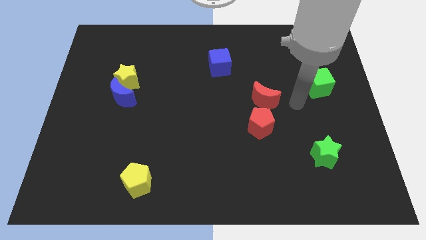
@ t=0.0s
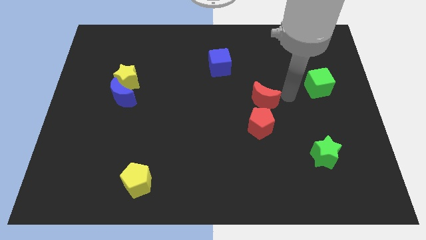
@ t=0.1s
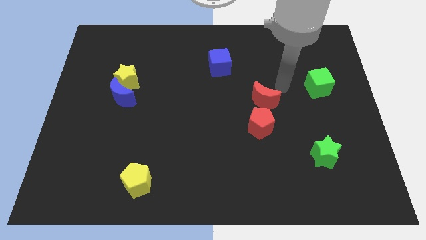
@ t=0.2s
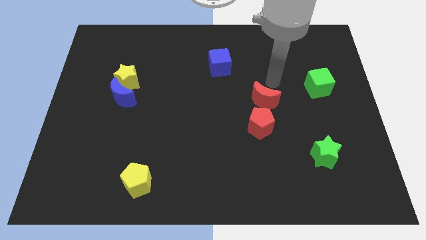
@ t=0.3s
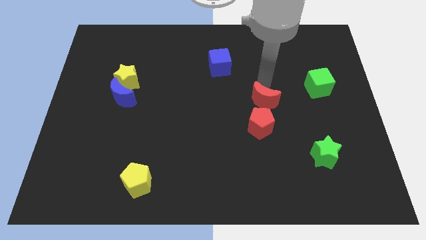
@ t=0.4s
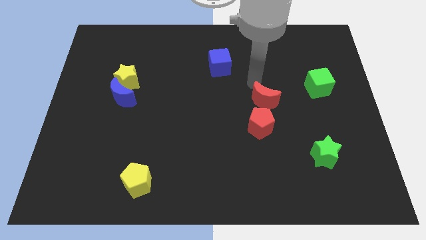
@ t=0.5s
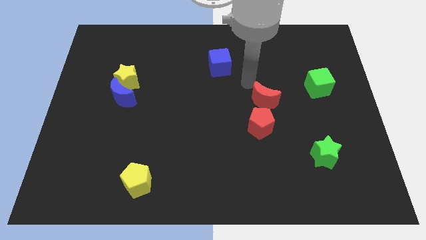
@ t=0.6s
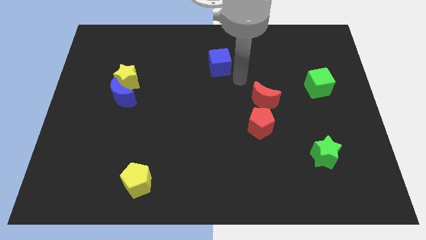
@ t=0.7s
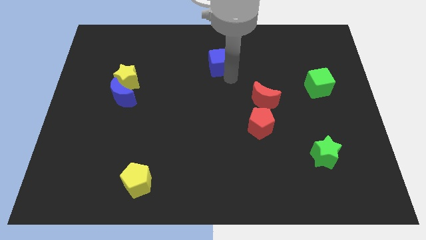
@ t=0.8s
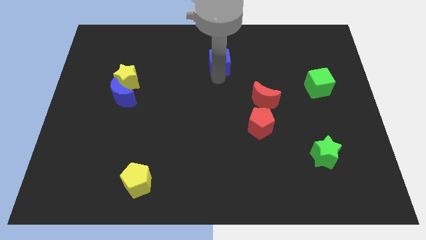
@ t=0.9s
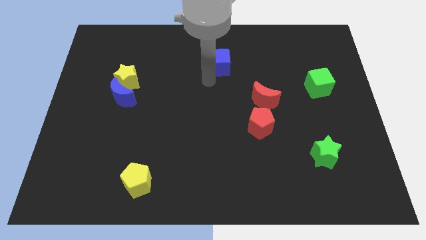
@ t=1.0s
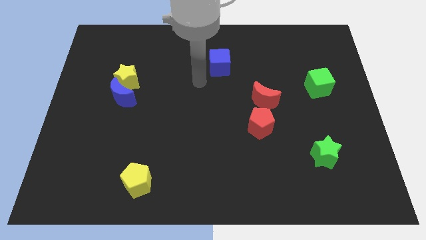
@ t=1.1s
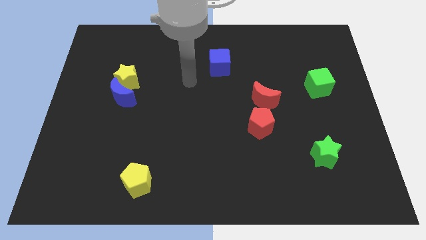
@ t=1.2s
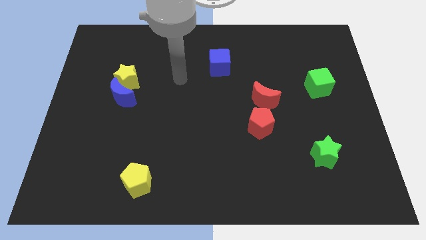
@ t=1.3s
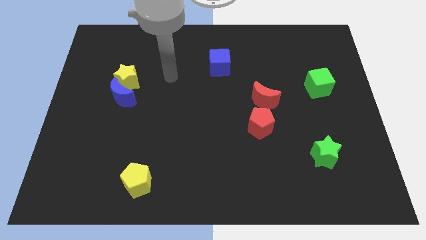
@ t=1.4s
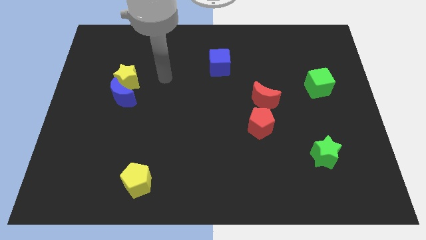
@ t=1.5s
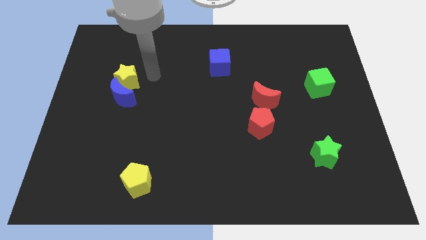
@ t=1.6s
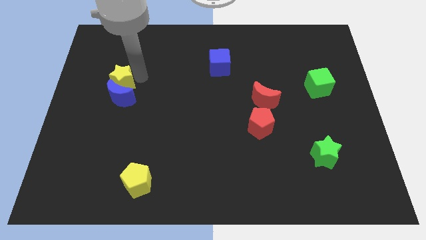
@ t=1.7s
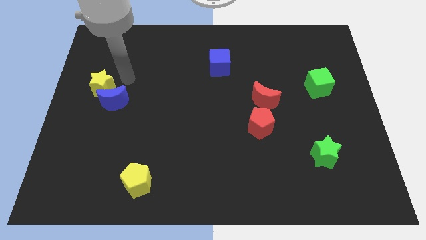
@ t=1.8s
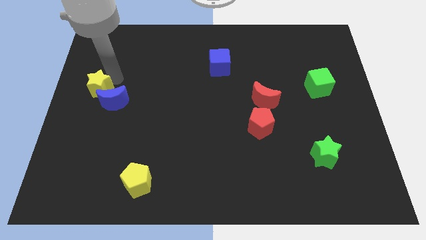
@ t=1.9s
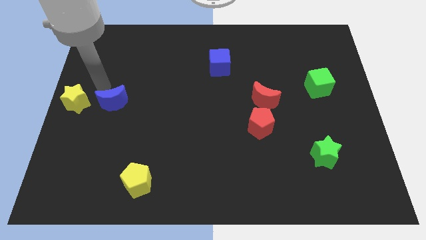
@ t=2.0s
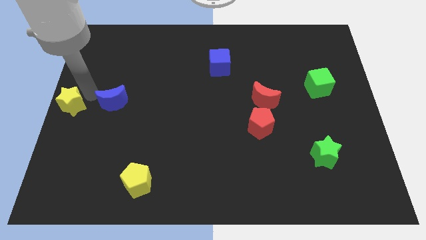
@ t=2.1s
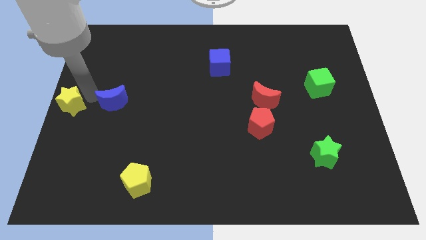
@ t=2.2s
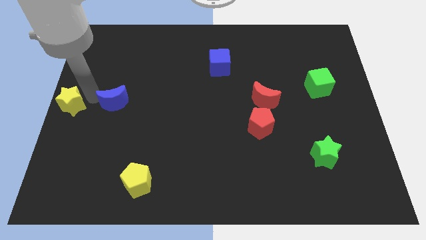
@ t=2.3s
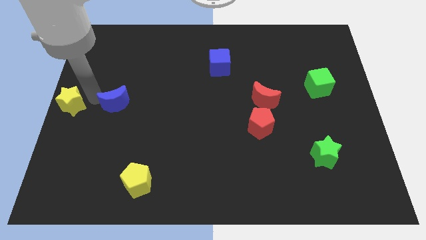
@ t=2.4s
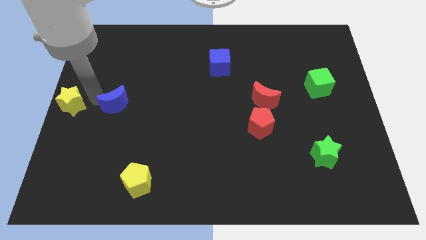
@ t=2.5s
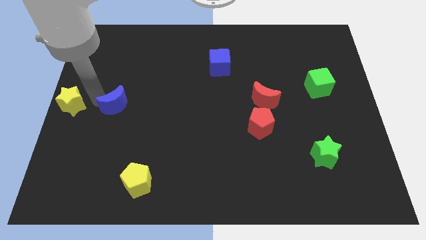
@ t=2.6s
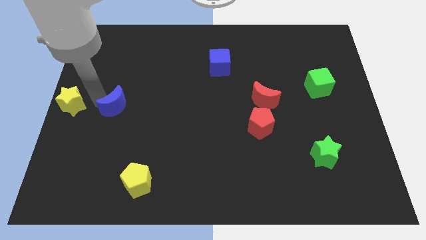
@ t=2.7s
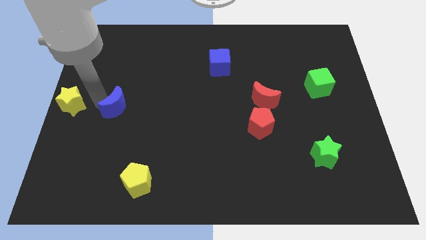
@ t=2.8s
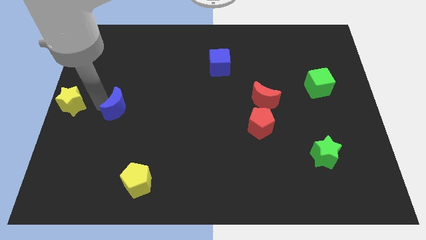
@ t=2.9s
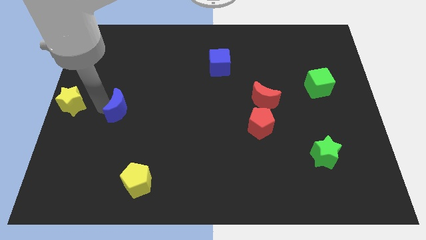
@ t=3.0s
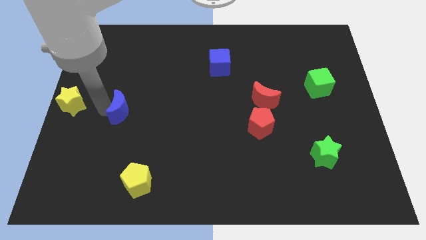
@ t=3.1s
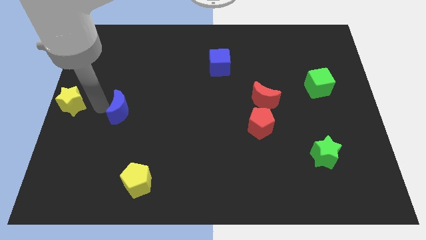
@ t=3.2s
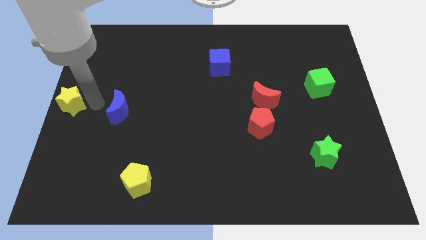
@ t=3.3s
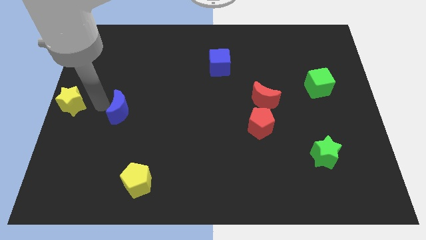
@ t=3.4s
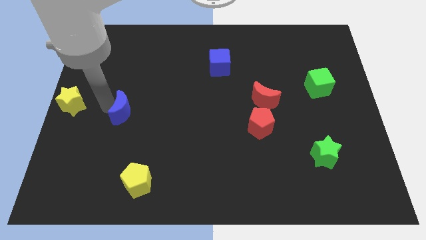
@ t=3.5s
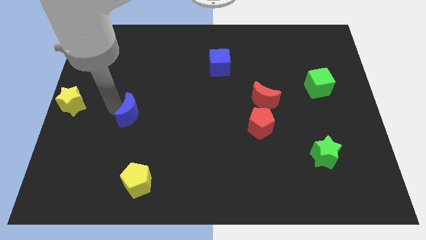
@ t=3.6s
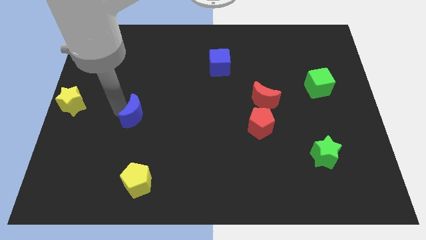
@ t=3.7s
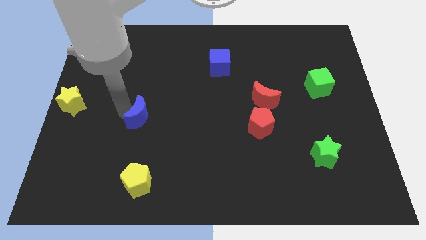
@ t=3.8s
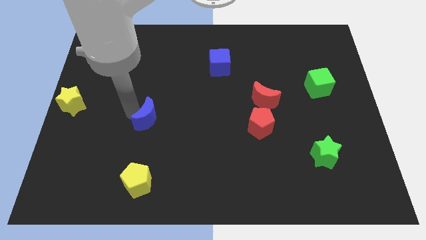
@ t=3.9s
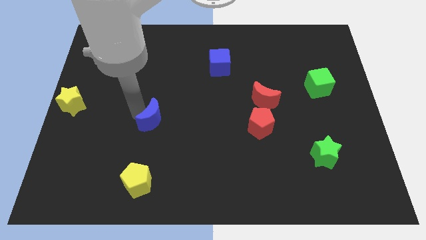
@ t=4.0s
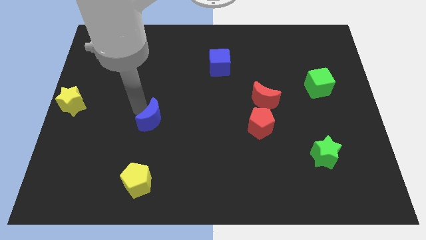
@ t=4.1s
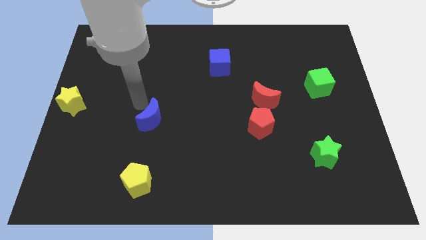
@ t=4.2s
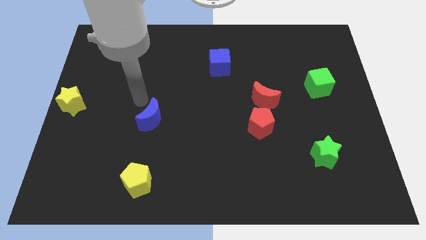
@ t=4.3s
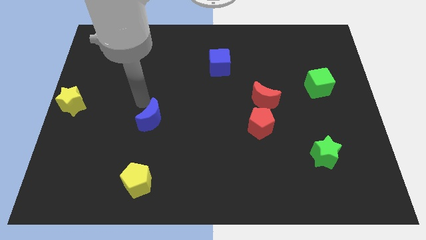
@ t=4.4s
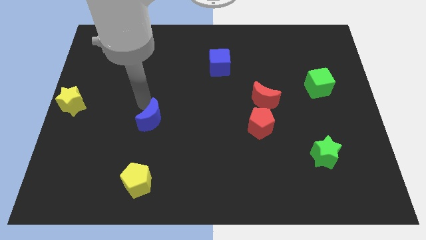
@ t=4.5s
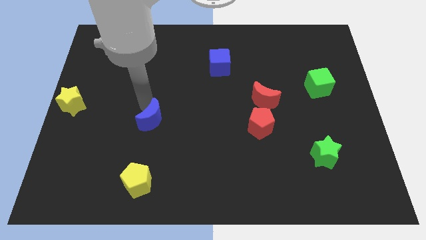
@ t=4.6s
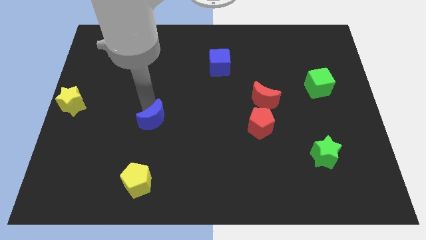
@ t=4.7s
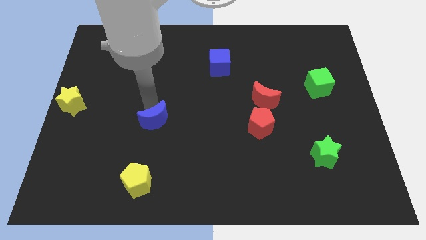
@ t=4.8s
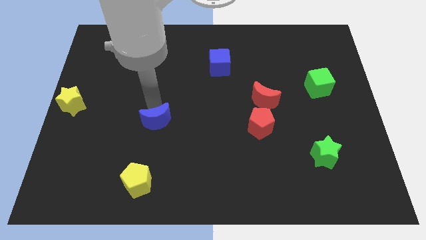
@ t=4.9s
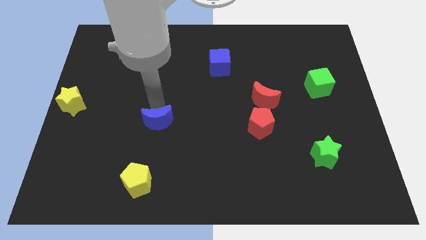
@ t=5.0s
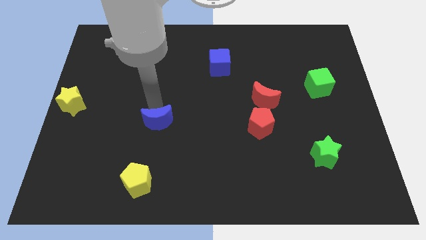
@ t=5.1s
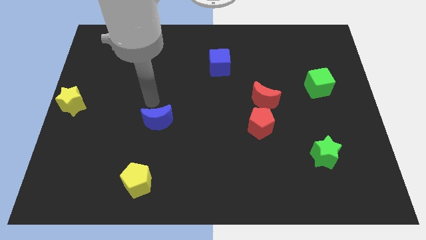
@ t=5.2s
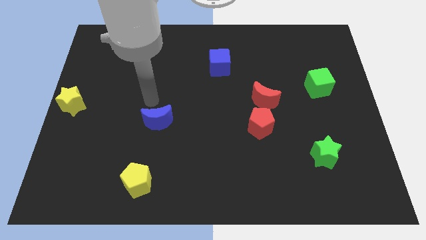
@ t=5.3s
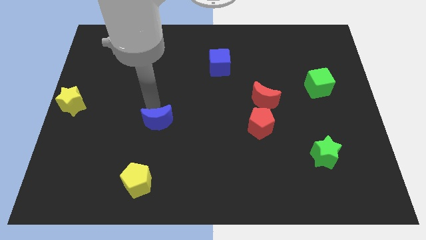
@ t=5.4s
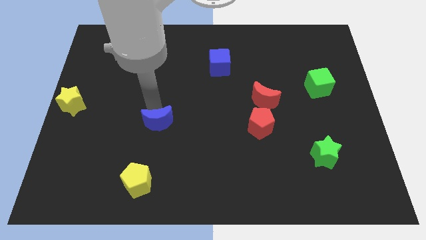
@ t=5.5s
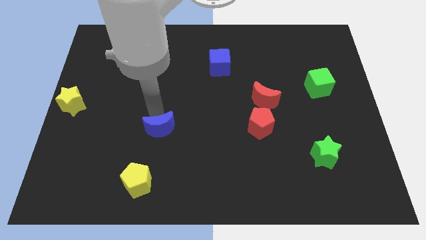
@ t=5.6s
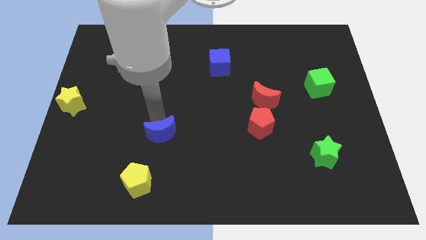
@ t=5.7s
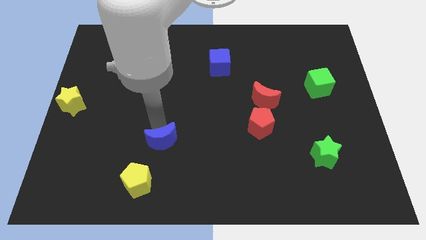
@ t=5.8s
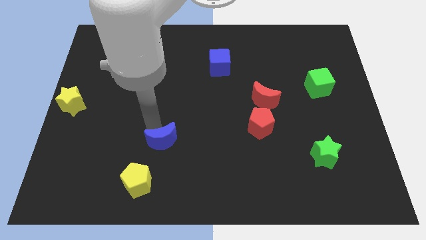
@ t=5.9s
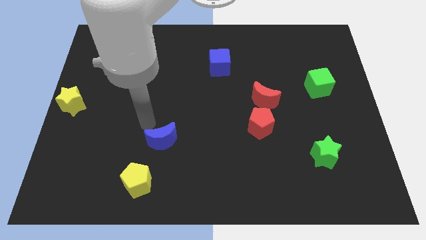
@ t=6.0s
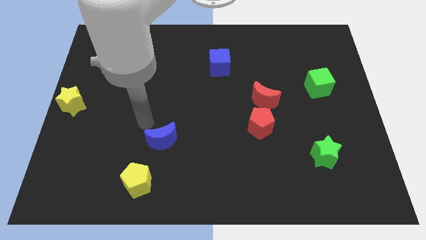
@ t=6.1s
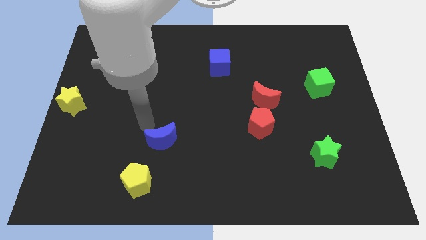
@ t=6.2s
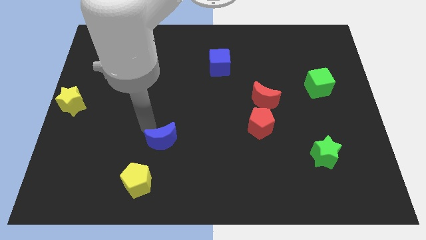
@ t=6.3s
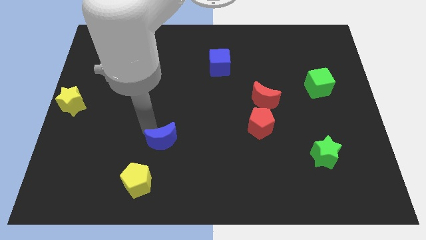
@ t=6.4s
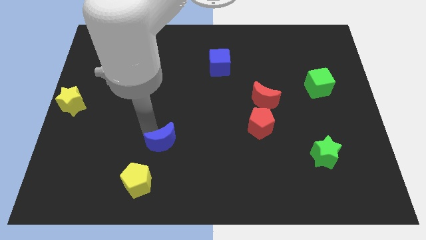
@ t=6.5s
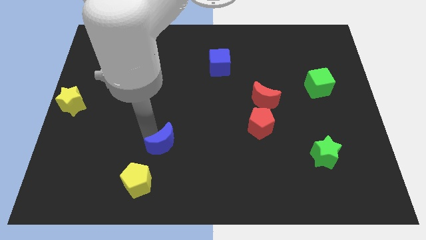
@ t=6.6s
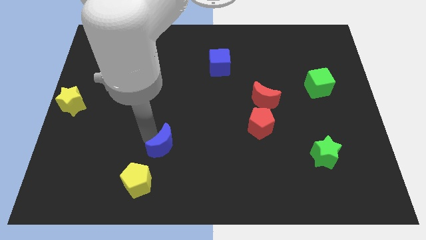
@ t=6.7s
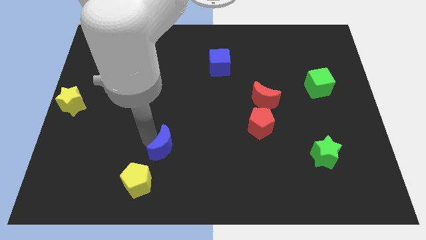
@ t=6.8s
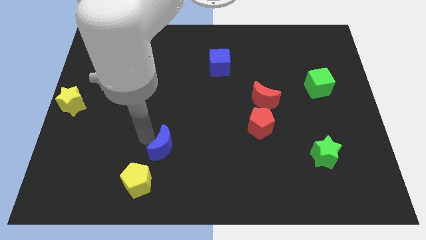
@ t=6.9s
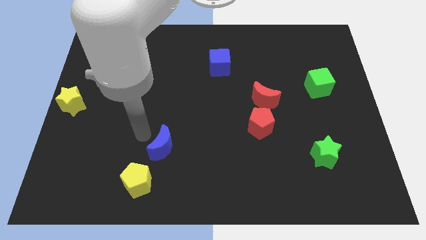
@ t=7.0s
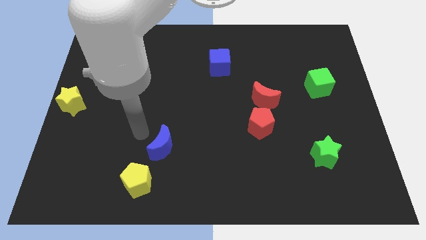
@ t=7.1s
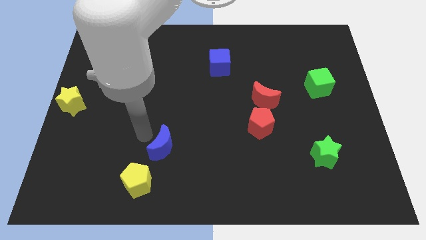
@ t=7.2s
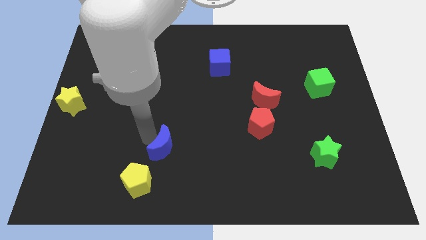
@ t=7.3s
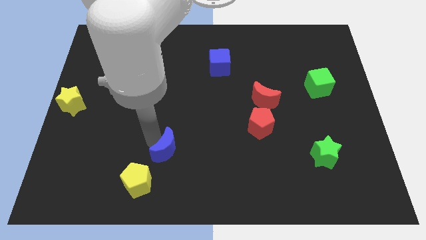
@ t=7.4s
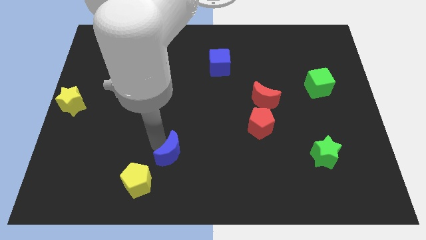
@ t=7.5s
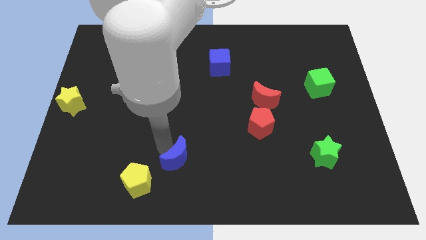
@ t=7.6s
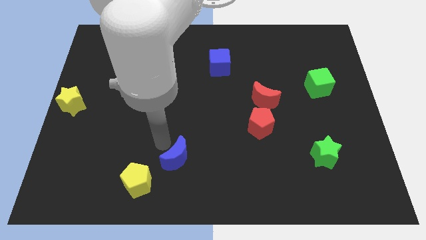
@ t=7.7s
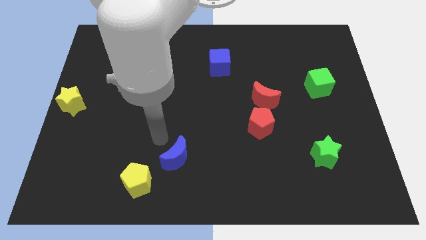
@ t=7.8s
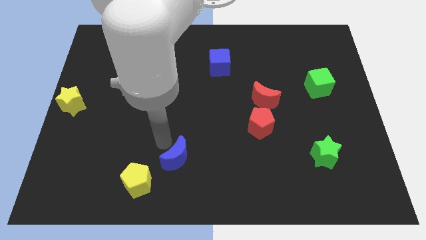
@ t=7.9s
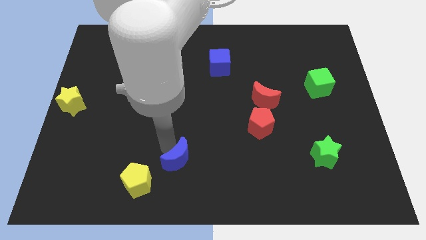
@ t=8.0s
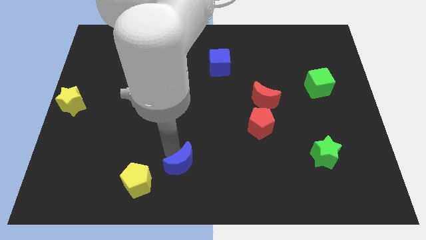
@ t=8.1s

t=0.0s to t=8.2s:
put the blue moon to the bottom side
